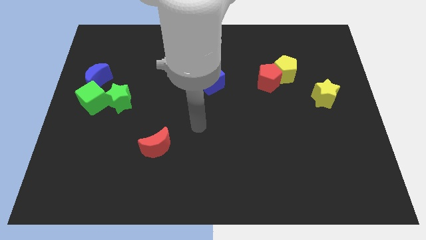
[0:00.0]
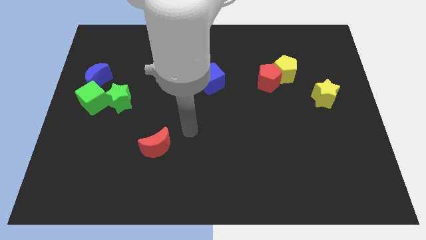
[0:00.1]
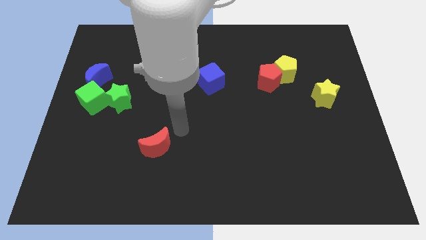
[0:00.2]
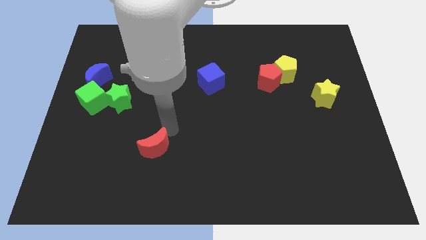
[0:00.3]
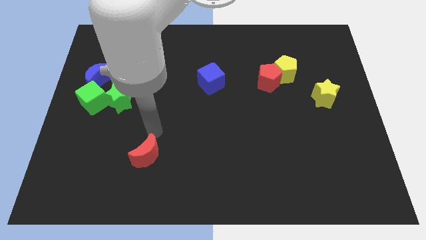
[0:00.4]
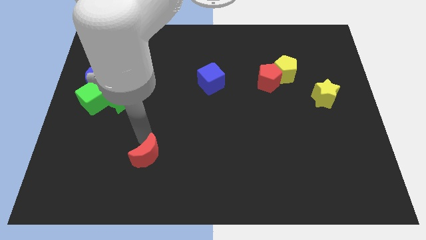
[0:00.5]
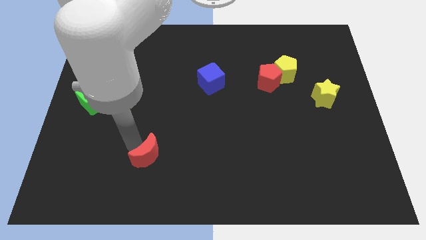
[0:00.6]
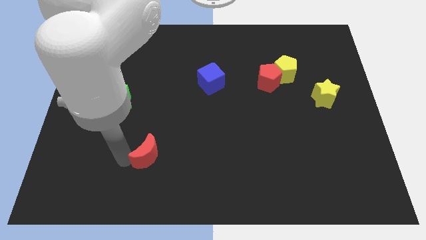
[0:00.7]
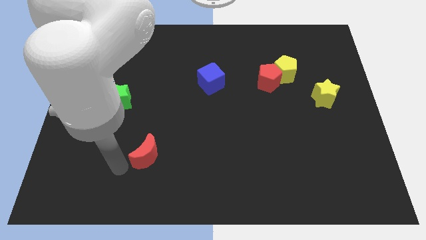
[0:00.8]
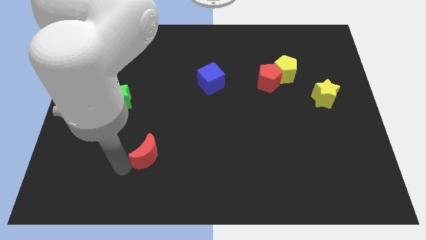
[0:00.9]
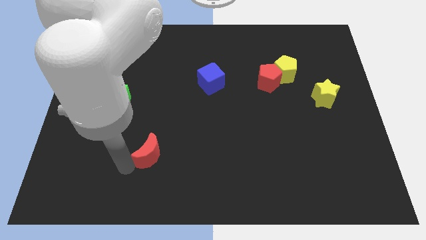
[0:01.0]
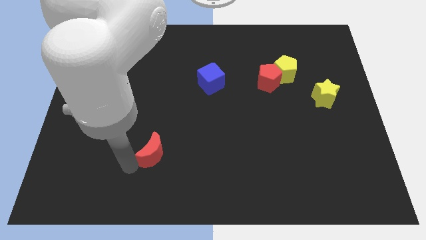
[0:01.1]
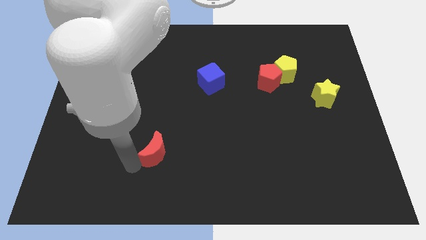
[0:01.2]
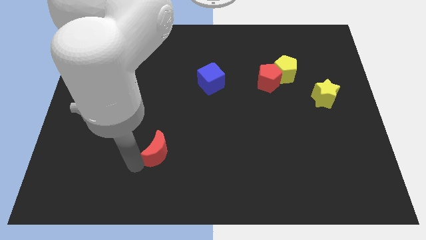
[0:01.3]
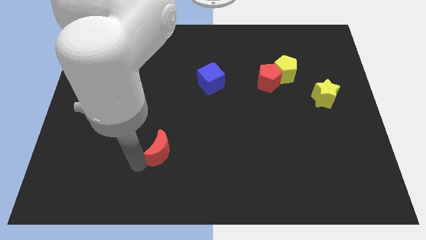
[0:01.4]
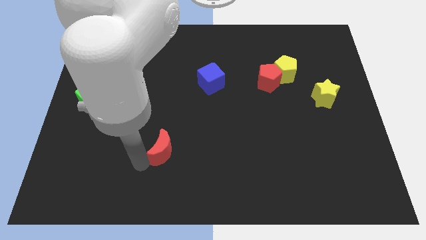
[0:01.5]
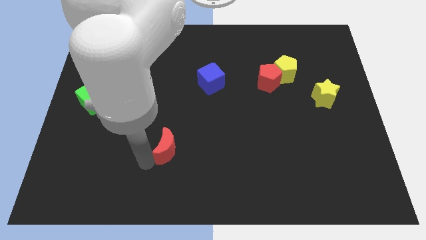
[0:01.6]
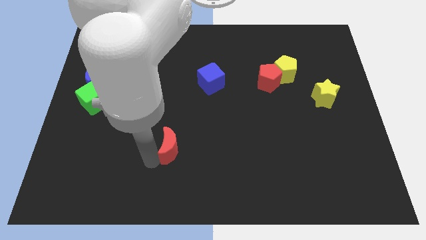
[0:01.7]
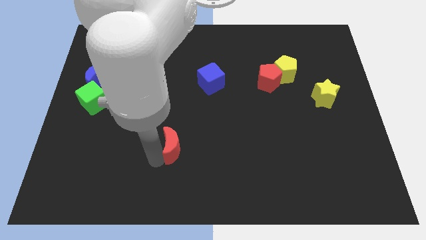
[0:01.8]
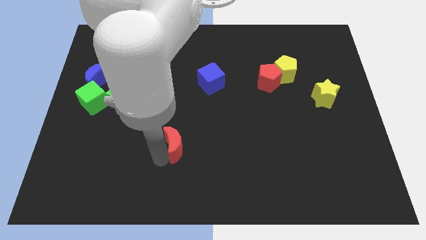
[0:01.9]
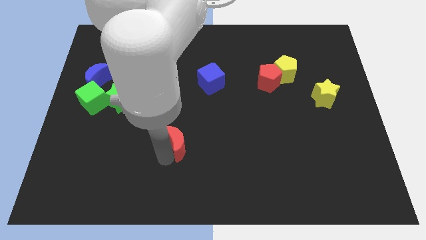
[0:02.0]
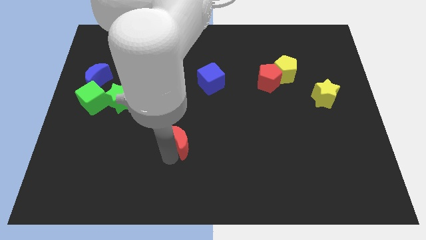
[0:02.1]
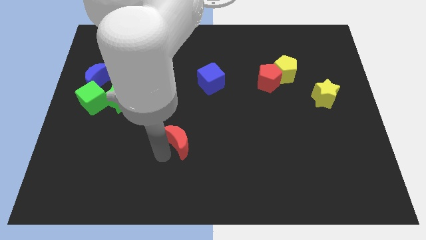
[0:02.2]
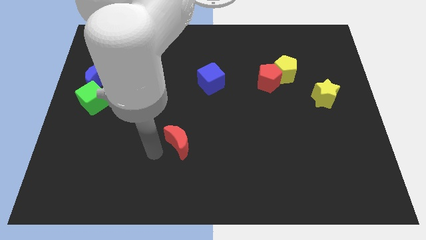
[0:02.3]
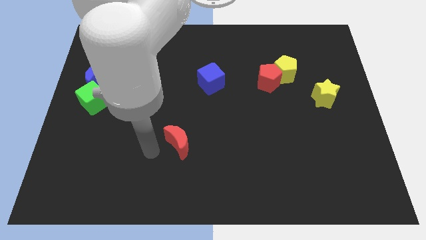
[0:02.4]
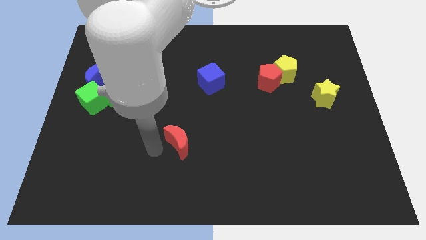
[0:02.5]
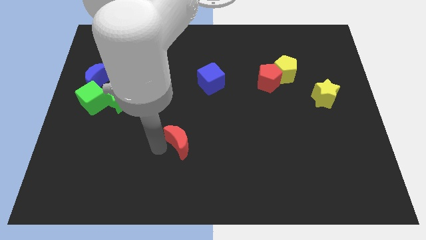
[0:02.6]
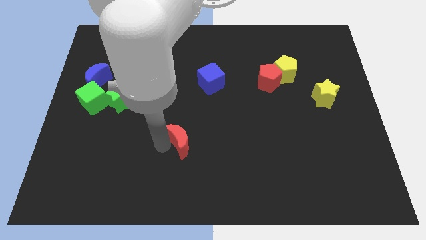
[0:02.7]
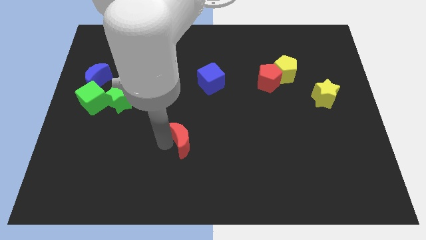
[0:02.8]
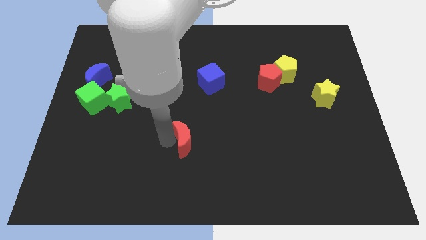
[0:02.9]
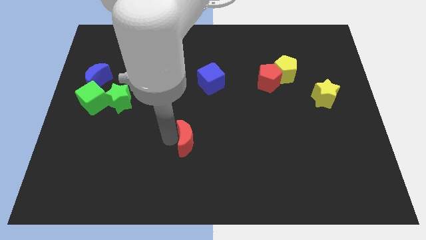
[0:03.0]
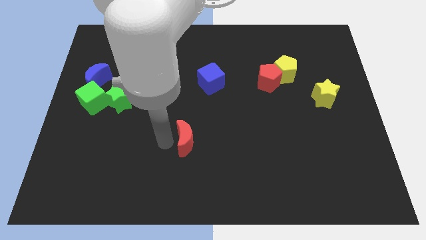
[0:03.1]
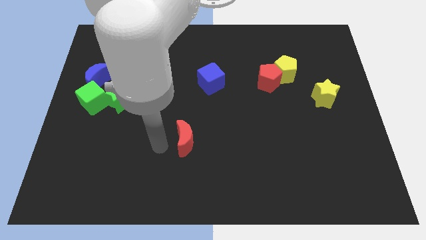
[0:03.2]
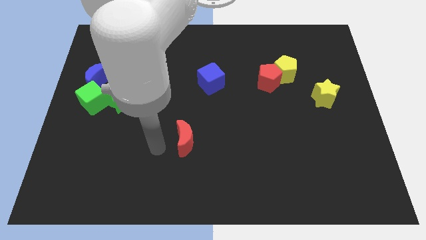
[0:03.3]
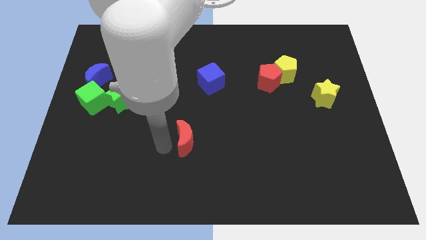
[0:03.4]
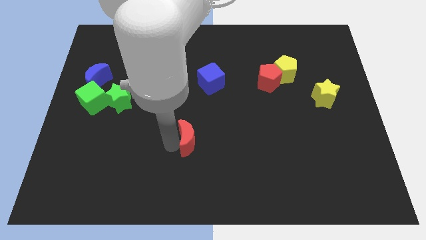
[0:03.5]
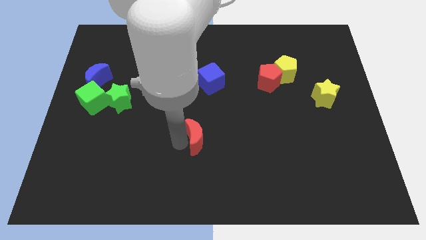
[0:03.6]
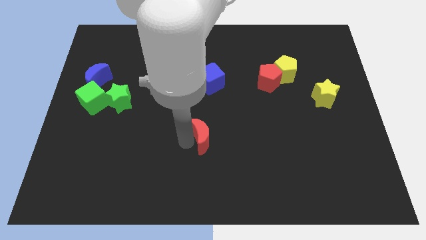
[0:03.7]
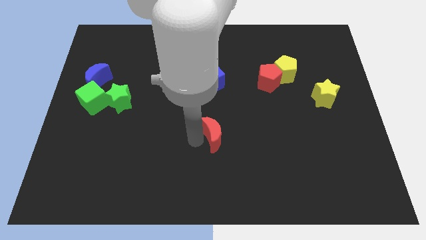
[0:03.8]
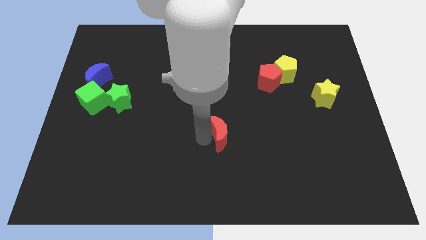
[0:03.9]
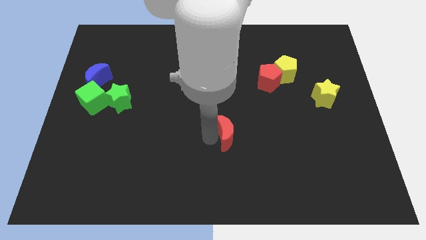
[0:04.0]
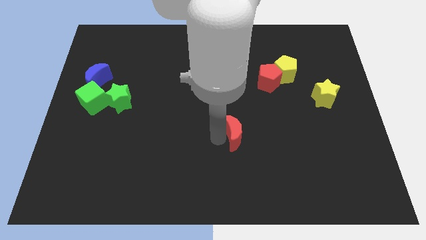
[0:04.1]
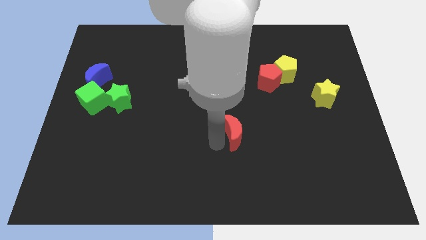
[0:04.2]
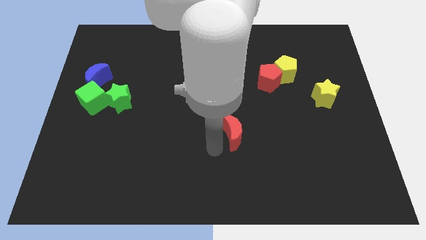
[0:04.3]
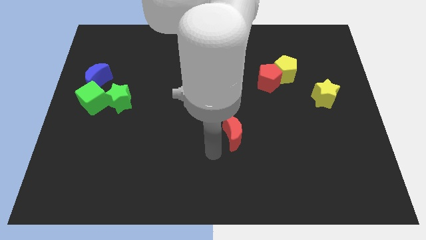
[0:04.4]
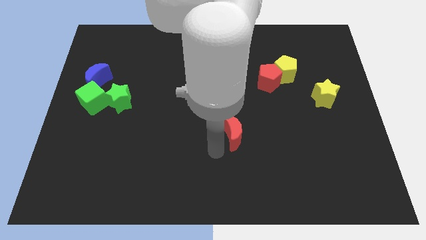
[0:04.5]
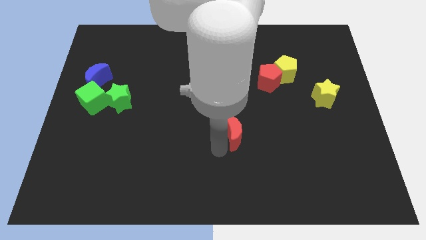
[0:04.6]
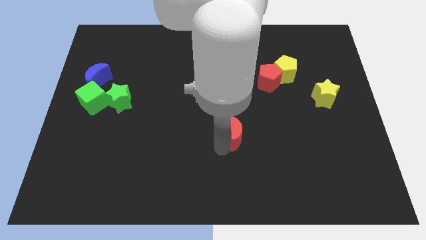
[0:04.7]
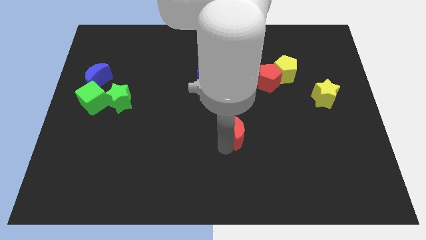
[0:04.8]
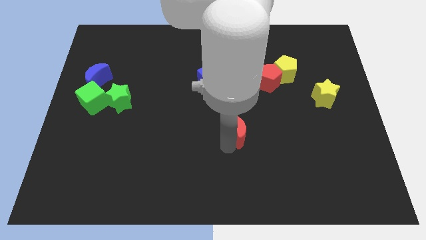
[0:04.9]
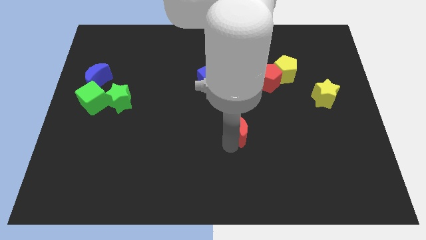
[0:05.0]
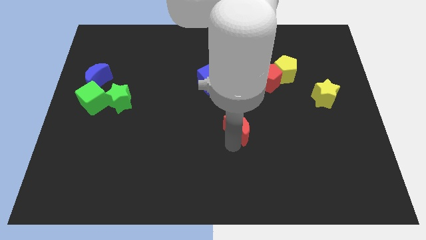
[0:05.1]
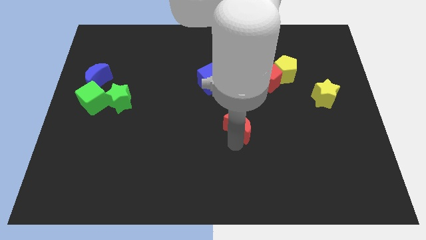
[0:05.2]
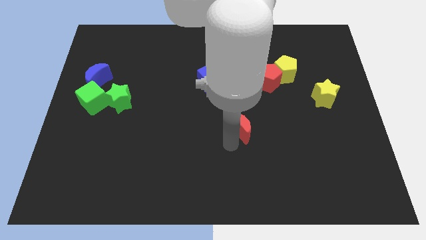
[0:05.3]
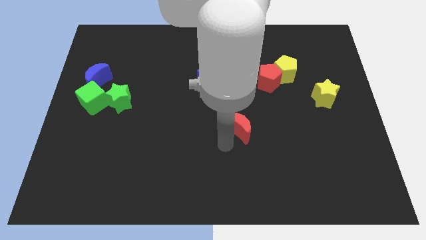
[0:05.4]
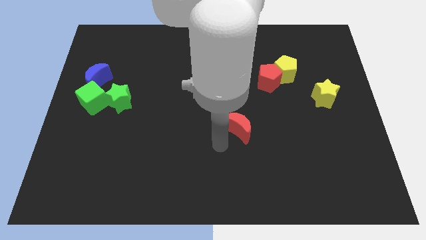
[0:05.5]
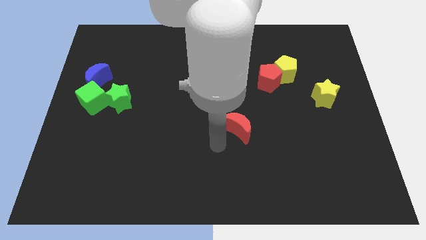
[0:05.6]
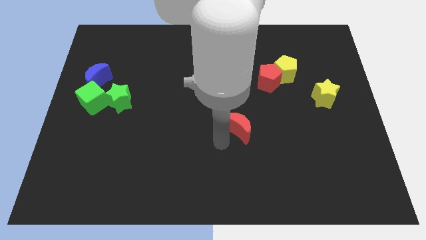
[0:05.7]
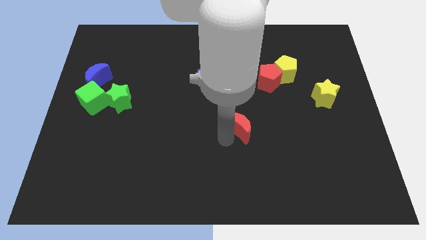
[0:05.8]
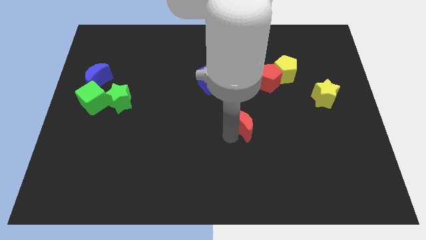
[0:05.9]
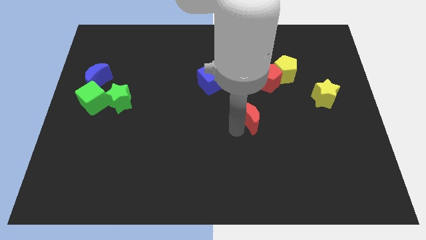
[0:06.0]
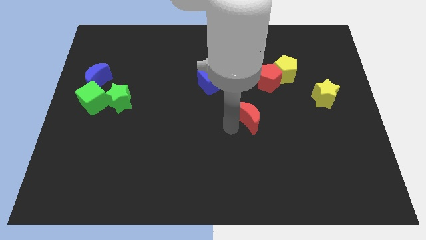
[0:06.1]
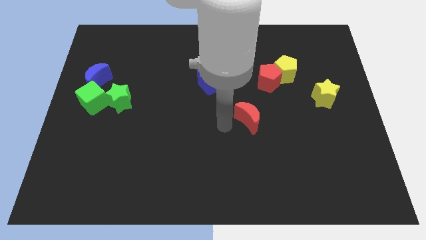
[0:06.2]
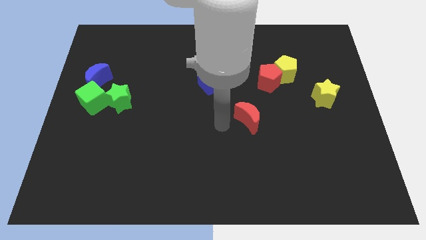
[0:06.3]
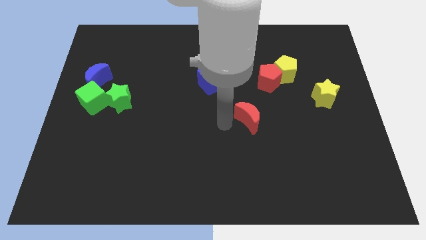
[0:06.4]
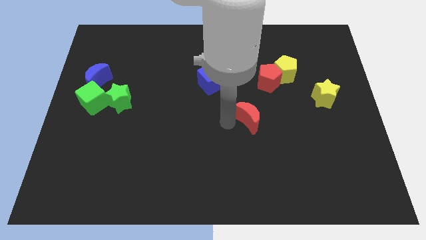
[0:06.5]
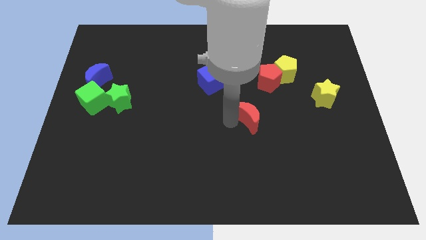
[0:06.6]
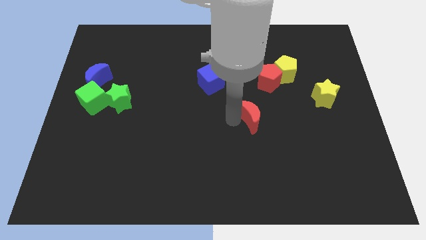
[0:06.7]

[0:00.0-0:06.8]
move the red moon below the red pentagon

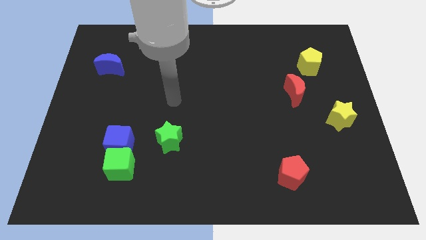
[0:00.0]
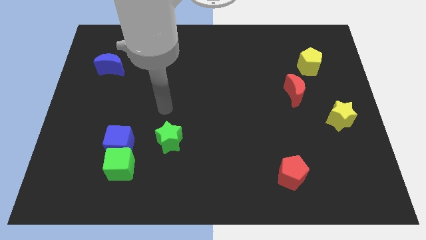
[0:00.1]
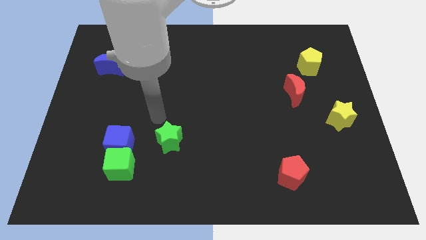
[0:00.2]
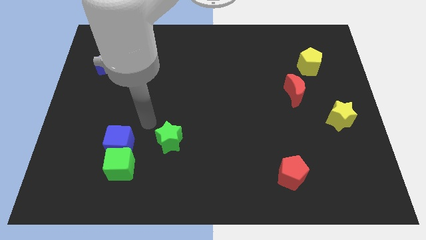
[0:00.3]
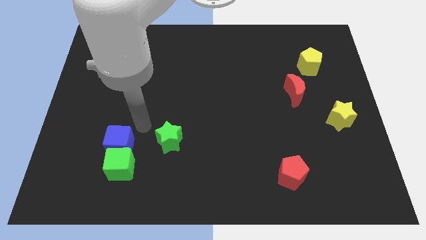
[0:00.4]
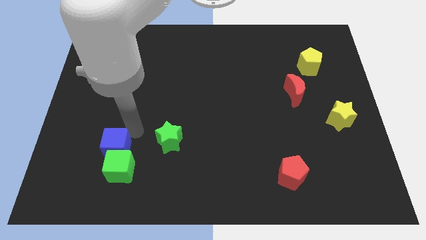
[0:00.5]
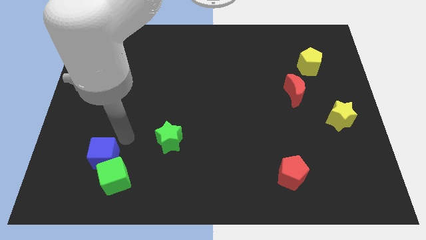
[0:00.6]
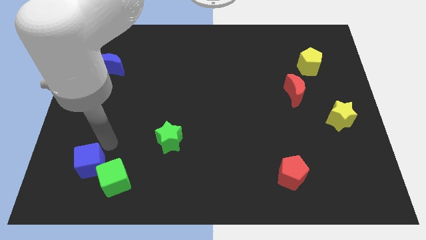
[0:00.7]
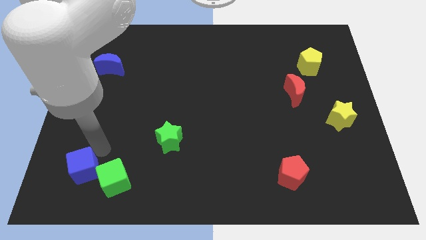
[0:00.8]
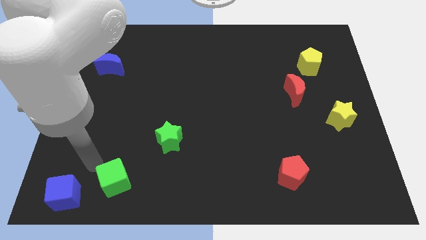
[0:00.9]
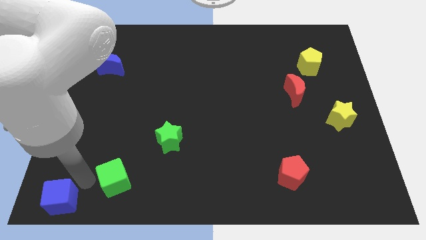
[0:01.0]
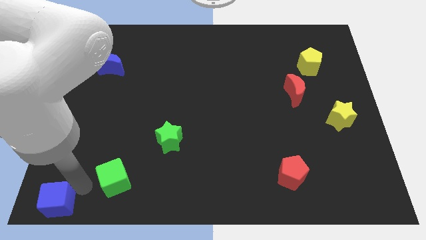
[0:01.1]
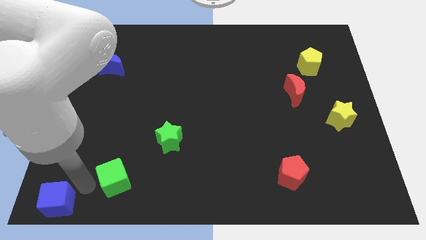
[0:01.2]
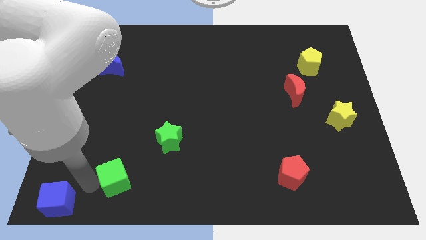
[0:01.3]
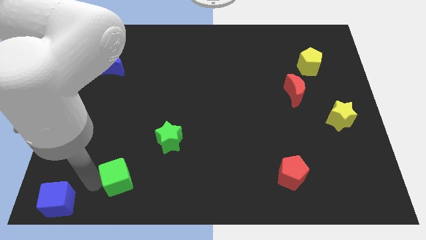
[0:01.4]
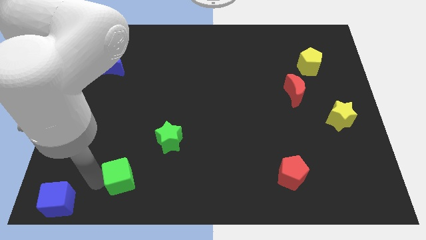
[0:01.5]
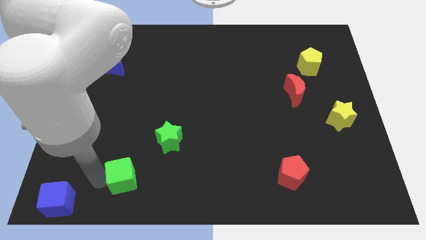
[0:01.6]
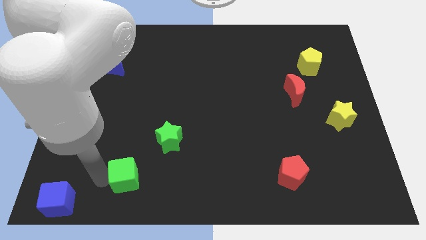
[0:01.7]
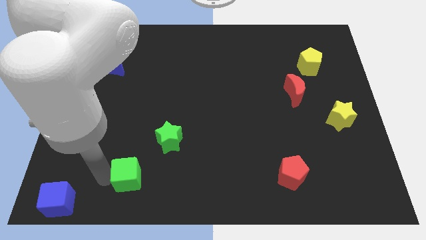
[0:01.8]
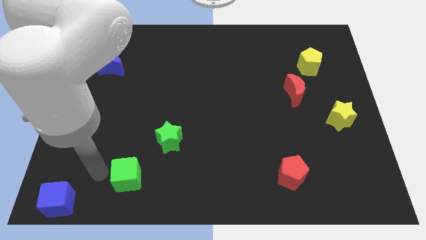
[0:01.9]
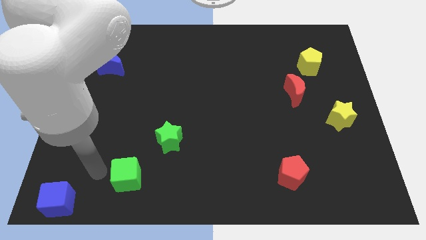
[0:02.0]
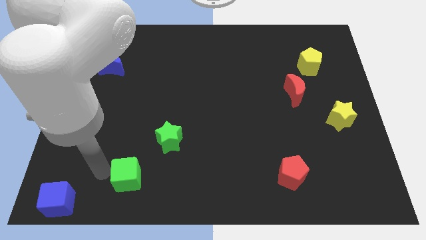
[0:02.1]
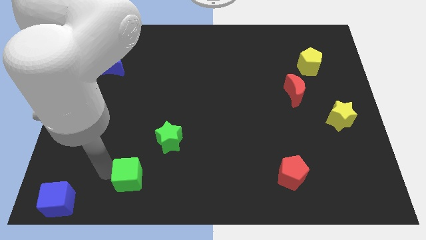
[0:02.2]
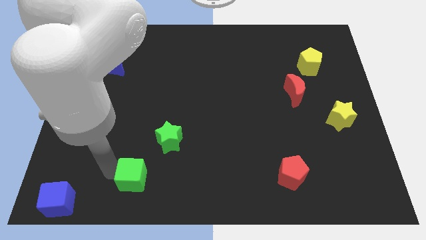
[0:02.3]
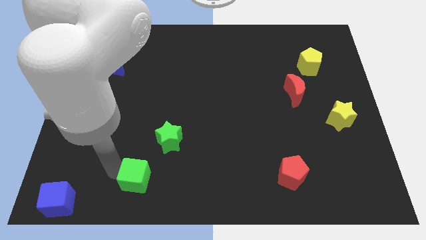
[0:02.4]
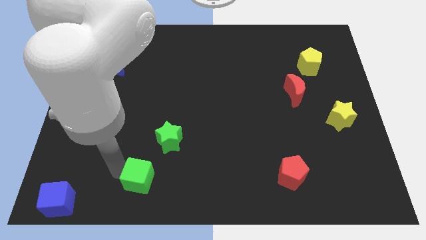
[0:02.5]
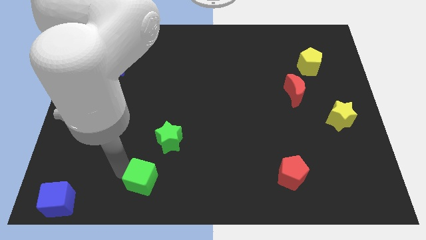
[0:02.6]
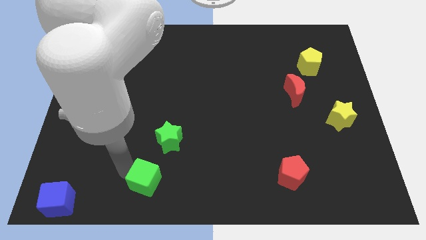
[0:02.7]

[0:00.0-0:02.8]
push the green cube to the bottom side of the green star
